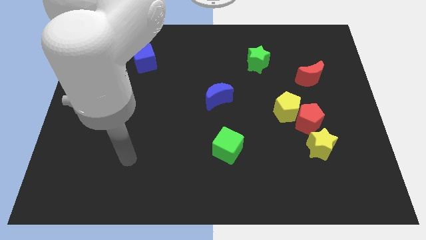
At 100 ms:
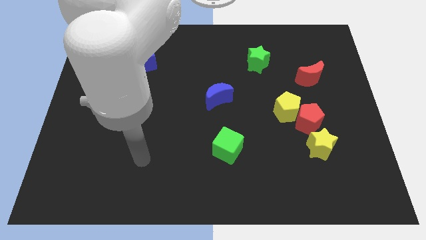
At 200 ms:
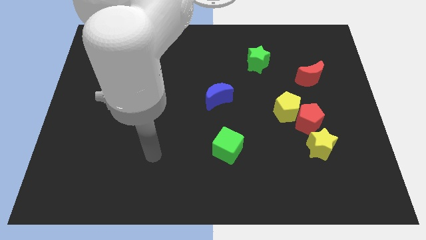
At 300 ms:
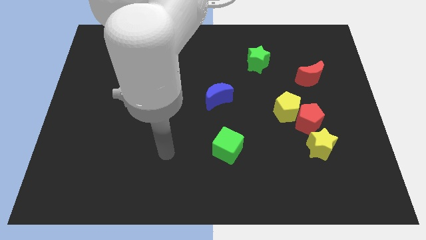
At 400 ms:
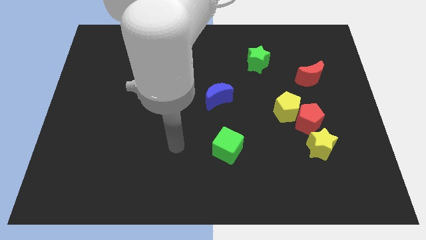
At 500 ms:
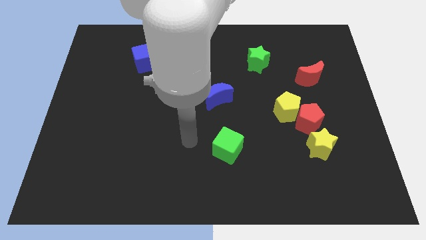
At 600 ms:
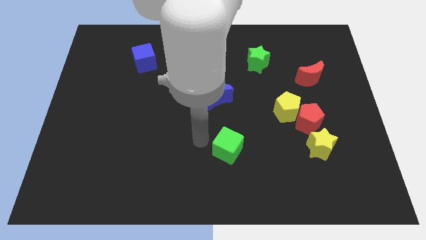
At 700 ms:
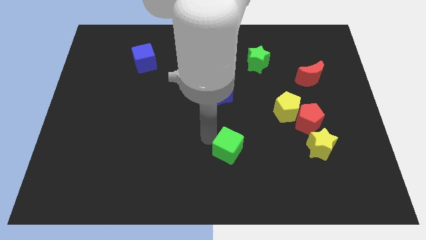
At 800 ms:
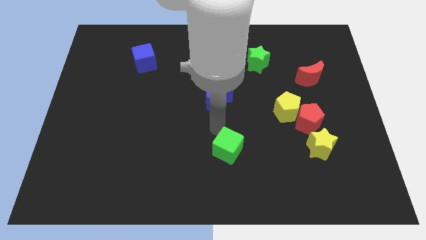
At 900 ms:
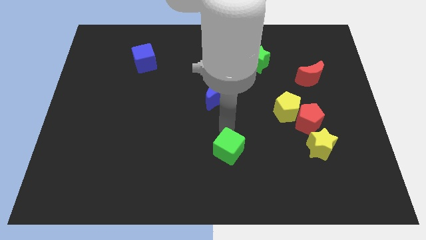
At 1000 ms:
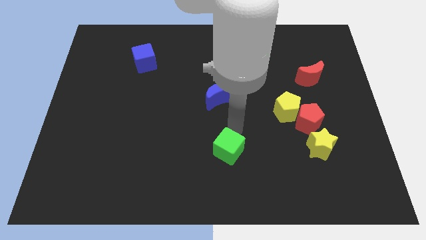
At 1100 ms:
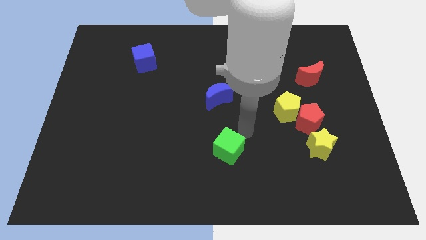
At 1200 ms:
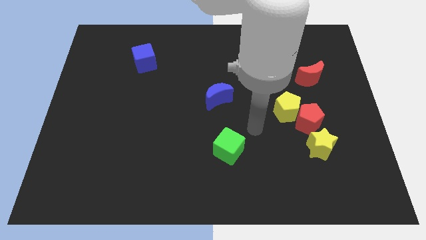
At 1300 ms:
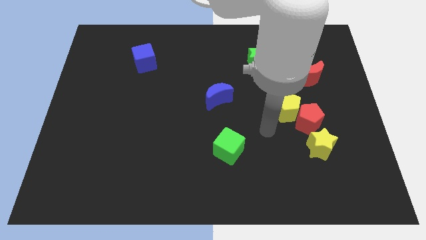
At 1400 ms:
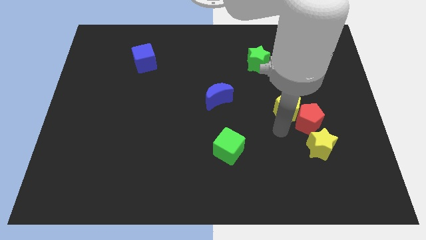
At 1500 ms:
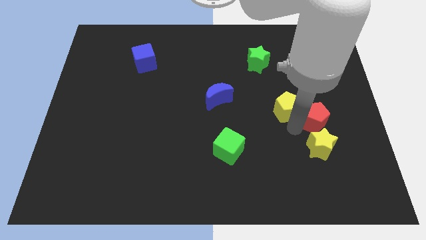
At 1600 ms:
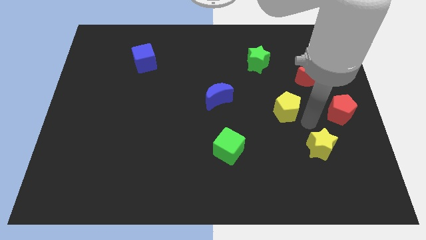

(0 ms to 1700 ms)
move the yellow pentagon away from the red pentagon

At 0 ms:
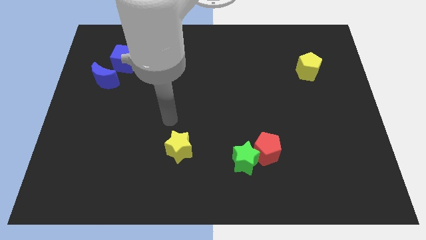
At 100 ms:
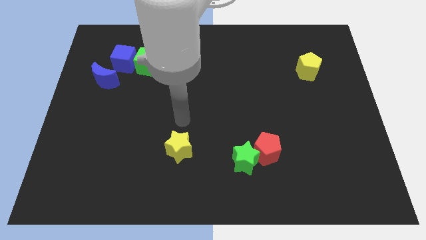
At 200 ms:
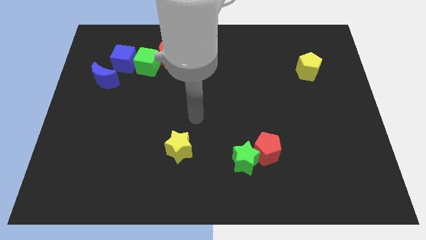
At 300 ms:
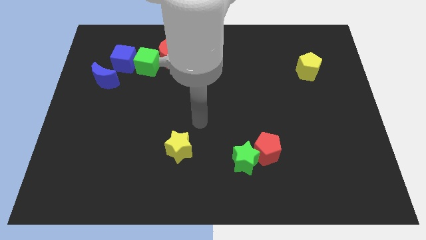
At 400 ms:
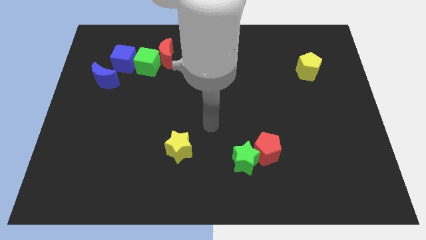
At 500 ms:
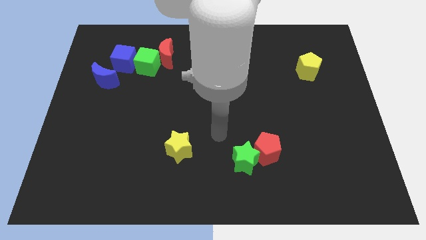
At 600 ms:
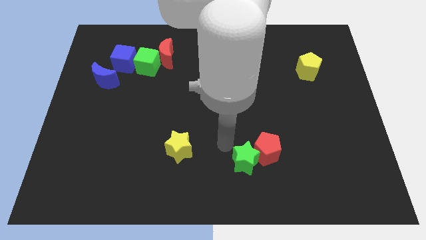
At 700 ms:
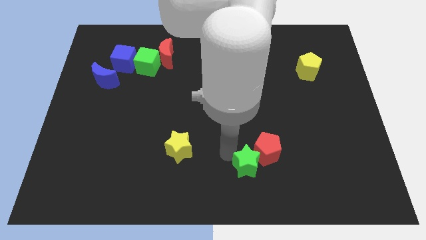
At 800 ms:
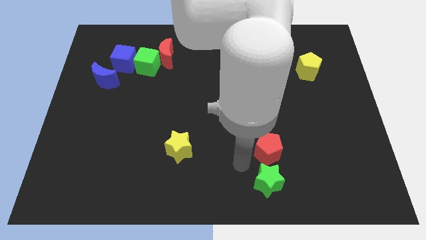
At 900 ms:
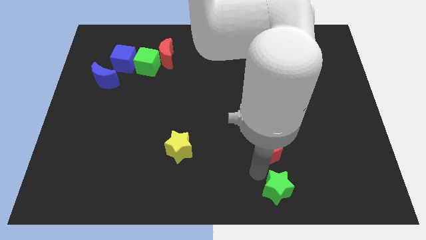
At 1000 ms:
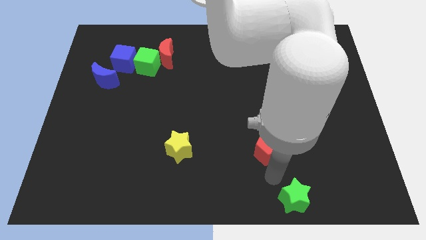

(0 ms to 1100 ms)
pull the red pentagon apart from the green star

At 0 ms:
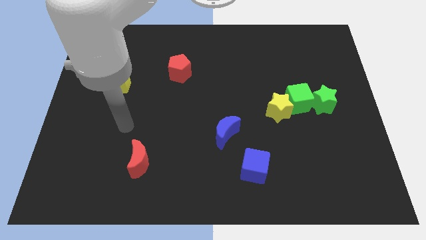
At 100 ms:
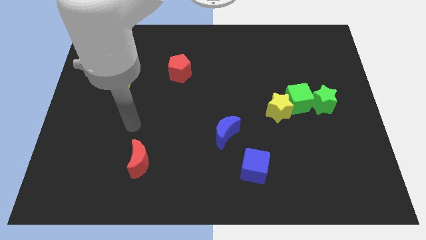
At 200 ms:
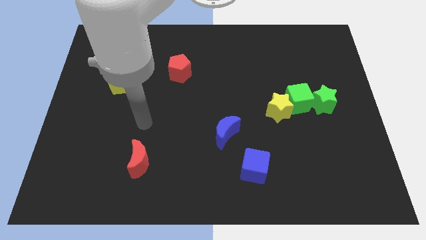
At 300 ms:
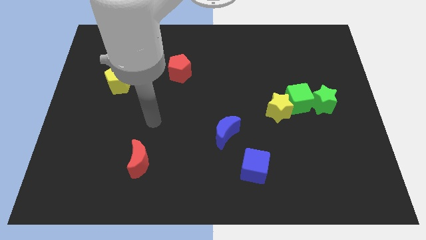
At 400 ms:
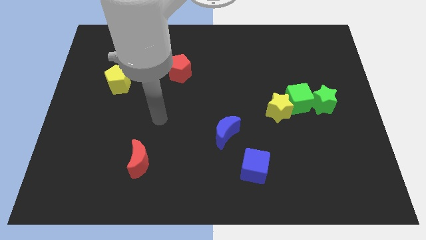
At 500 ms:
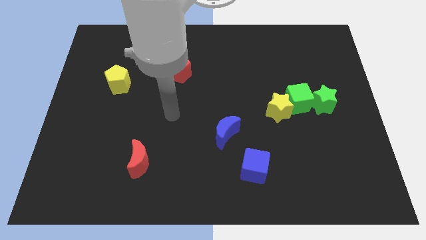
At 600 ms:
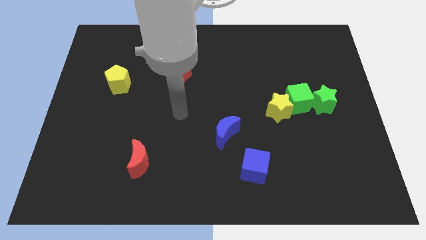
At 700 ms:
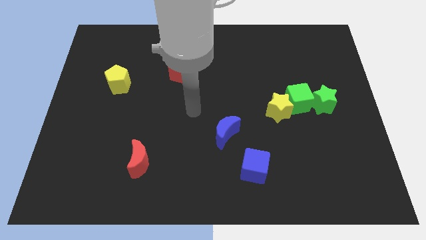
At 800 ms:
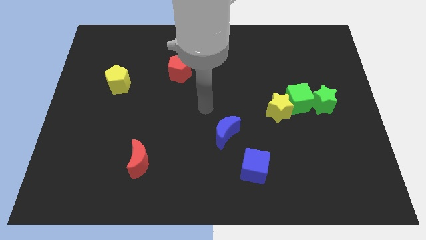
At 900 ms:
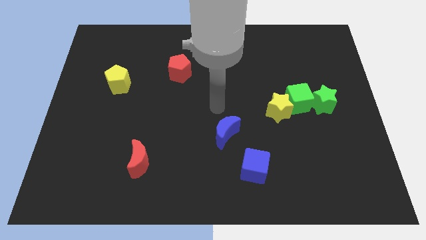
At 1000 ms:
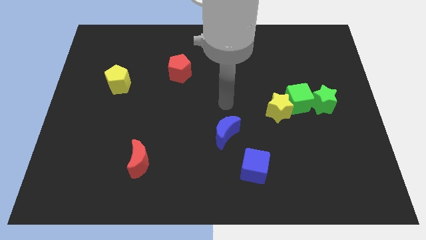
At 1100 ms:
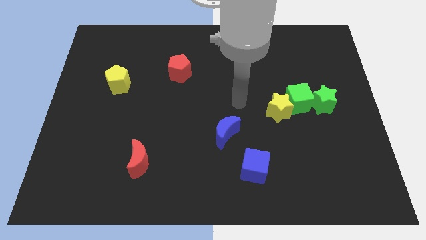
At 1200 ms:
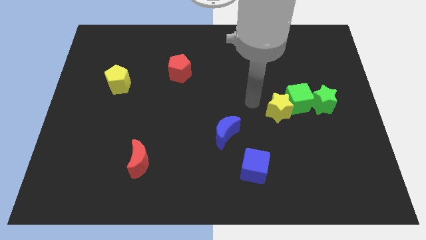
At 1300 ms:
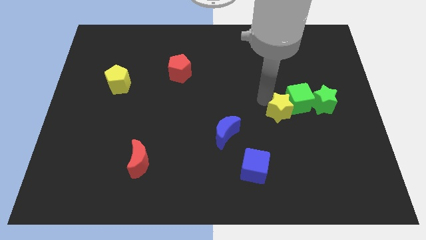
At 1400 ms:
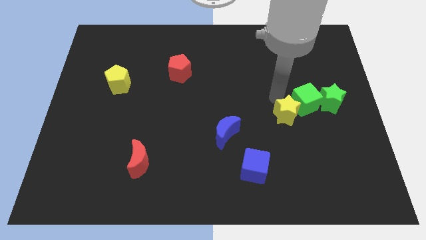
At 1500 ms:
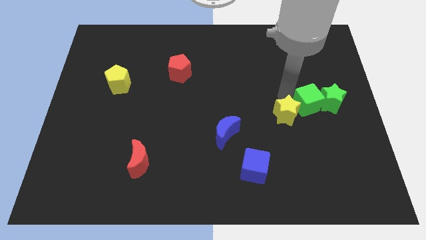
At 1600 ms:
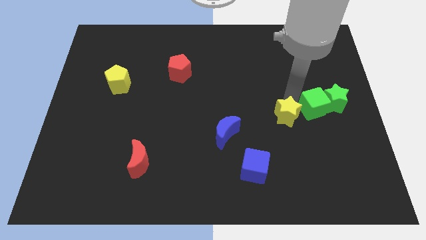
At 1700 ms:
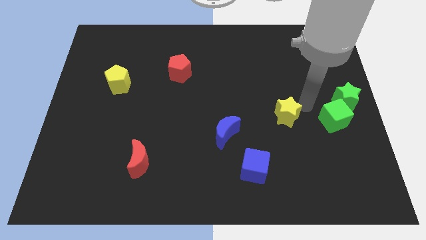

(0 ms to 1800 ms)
move the yellow star away from the green cube

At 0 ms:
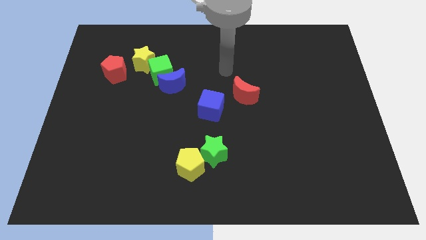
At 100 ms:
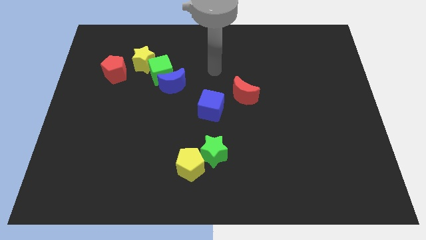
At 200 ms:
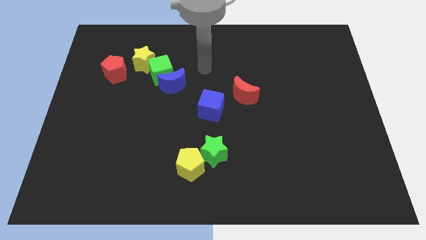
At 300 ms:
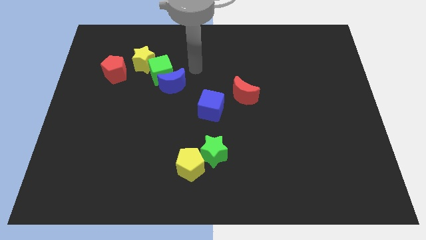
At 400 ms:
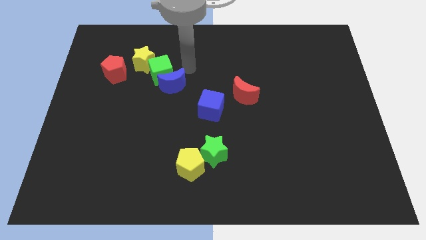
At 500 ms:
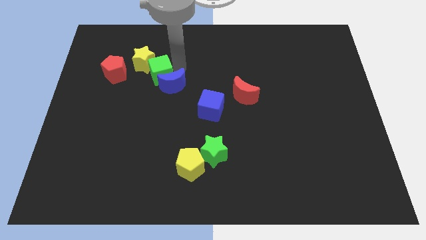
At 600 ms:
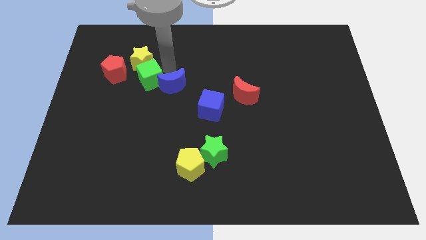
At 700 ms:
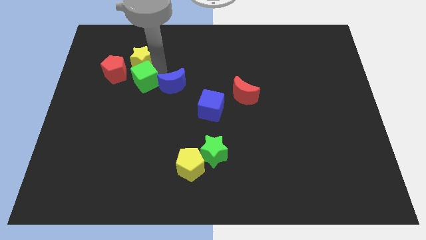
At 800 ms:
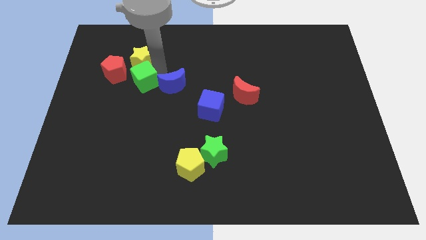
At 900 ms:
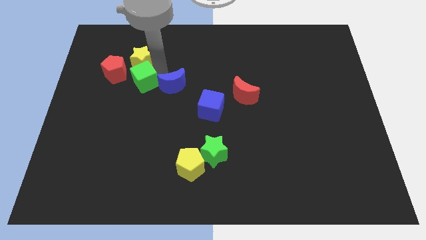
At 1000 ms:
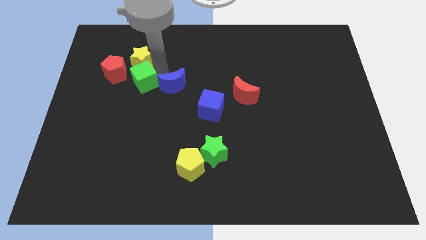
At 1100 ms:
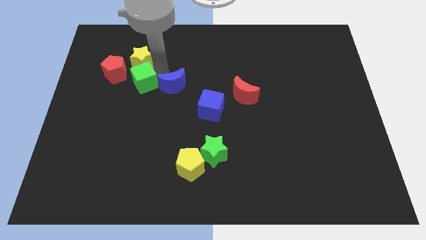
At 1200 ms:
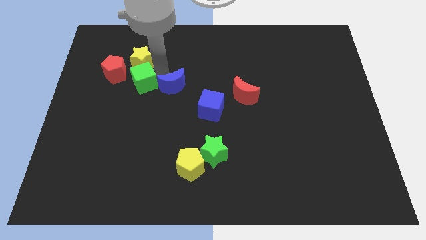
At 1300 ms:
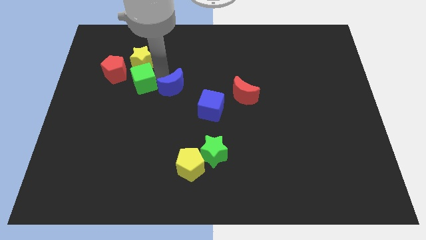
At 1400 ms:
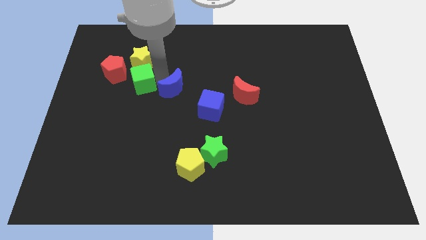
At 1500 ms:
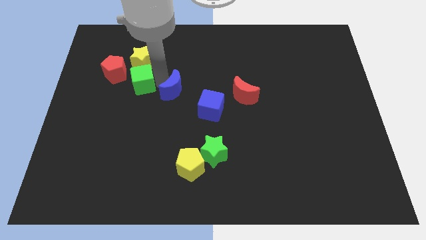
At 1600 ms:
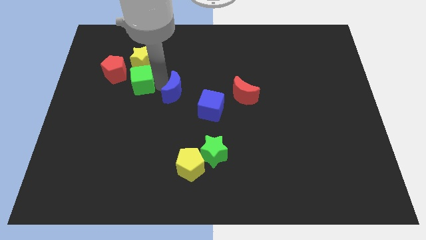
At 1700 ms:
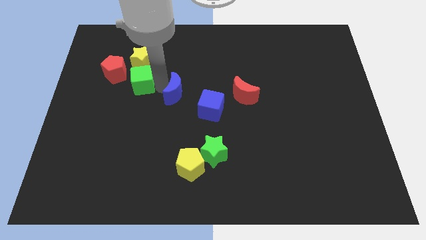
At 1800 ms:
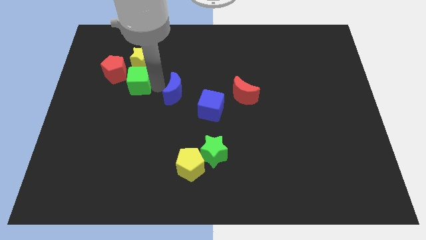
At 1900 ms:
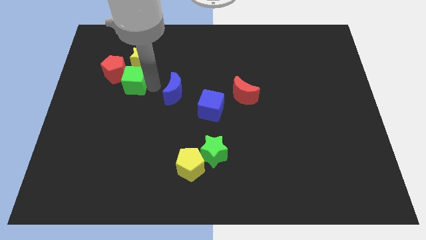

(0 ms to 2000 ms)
pull the blue moon apart from the green cube

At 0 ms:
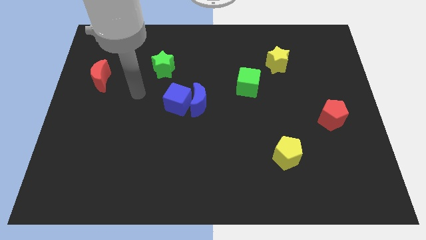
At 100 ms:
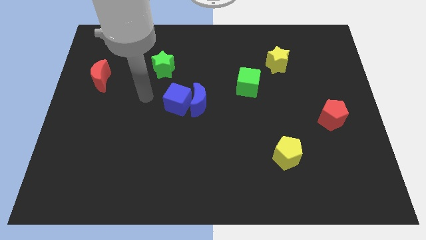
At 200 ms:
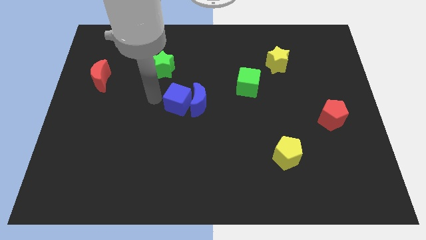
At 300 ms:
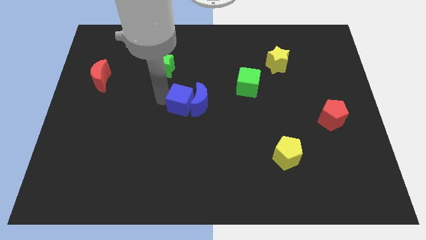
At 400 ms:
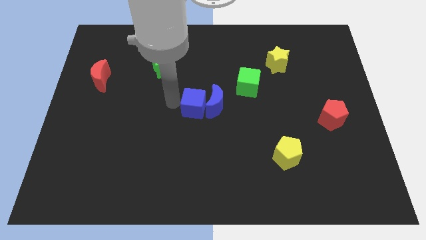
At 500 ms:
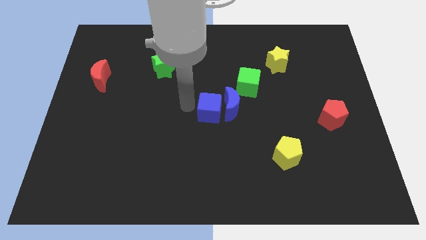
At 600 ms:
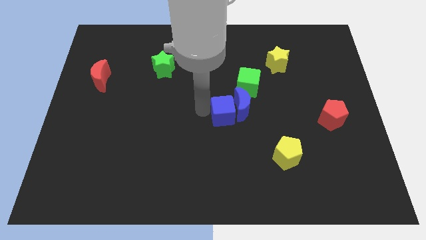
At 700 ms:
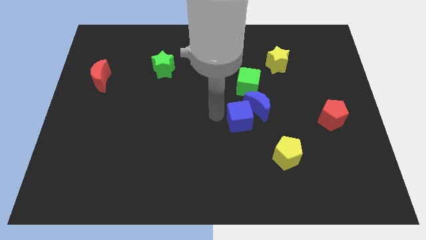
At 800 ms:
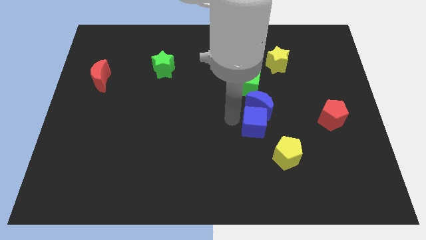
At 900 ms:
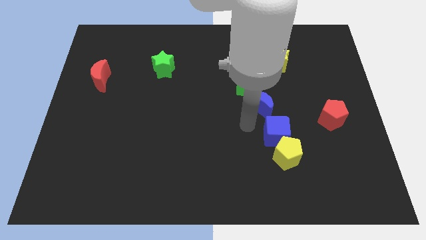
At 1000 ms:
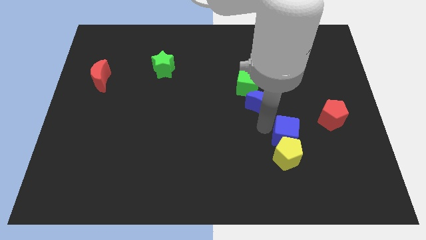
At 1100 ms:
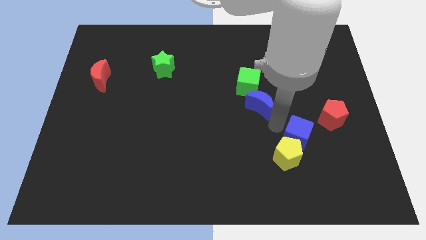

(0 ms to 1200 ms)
move the blue moon away from the blue cube

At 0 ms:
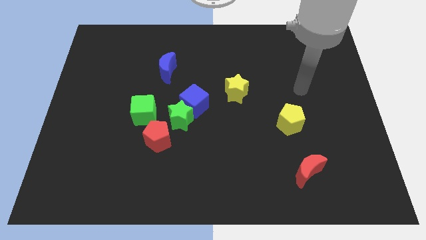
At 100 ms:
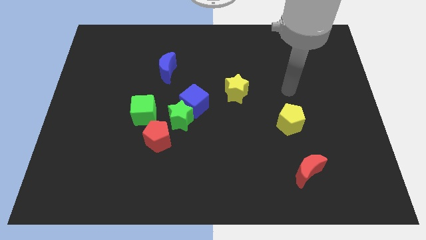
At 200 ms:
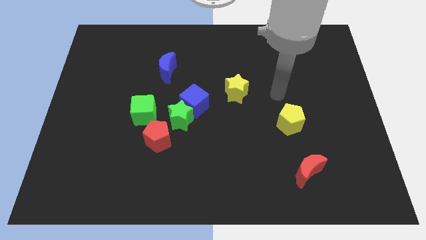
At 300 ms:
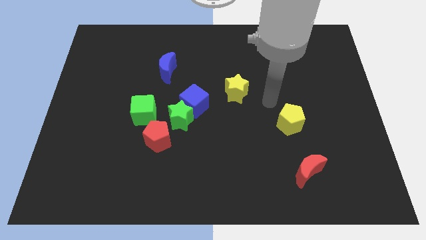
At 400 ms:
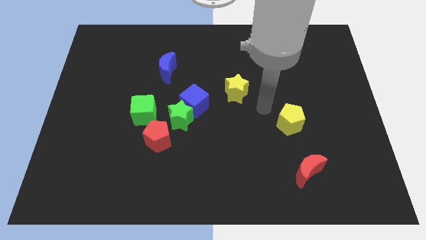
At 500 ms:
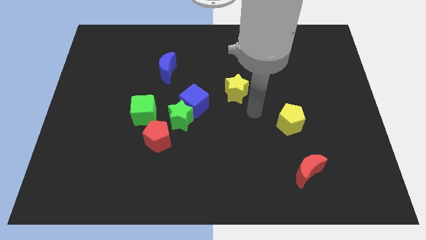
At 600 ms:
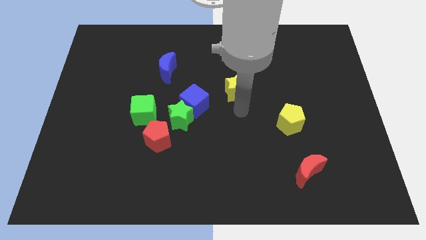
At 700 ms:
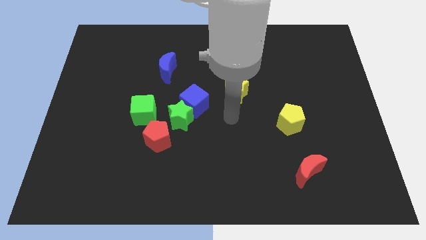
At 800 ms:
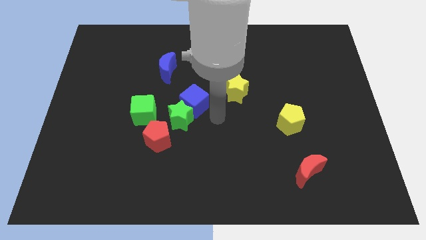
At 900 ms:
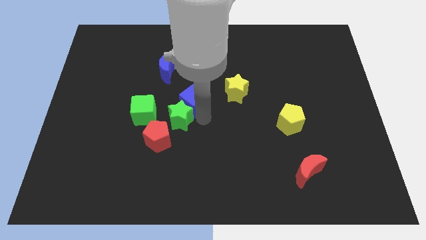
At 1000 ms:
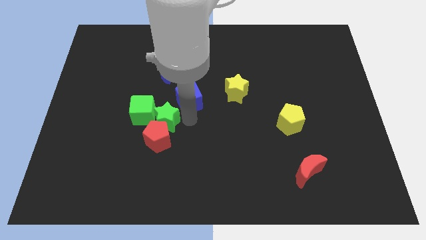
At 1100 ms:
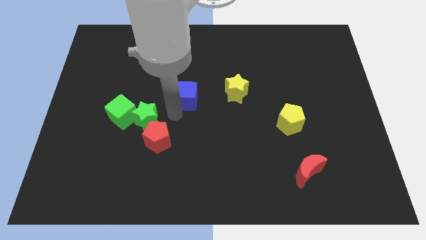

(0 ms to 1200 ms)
move the blue cube away from the green star
